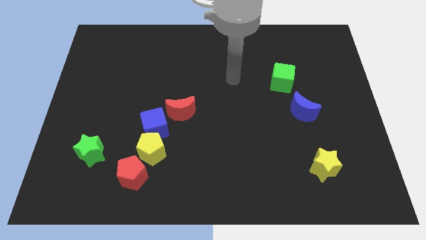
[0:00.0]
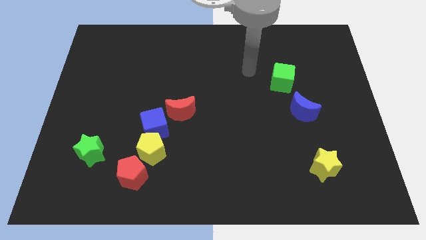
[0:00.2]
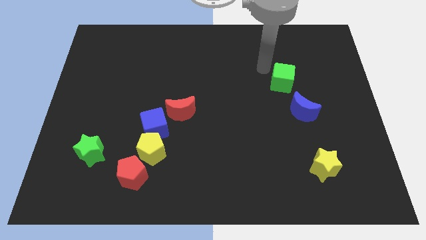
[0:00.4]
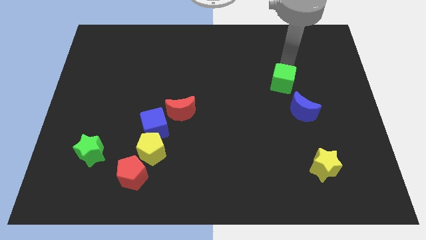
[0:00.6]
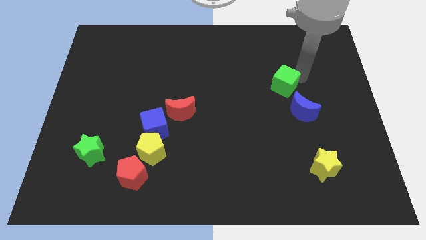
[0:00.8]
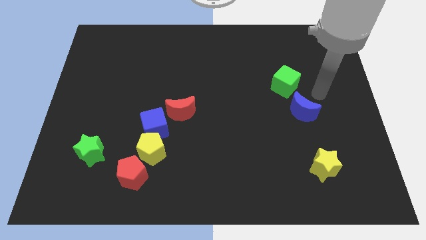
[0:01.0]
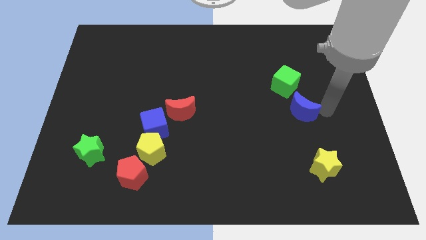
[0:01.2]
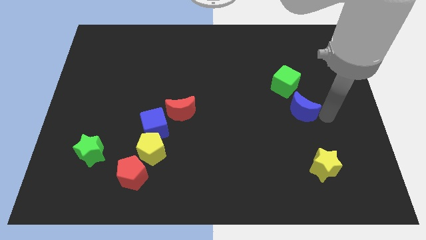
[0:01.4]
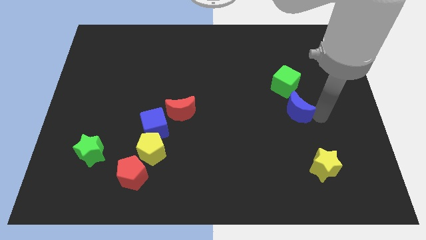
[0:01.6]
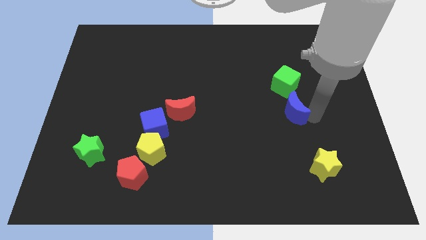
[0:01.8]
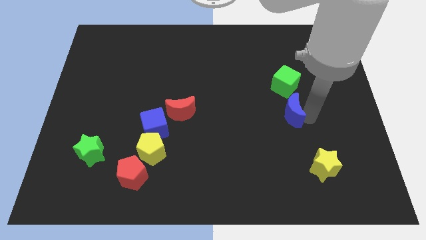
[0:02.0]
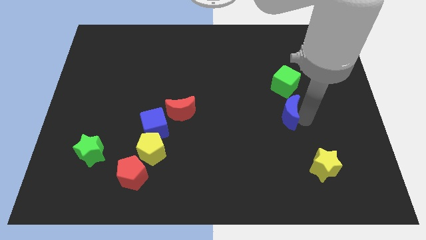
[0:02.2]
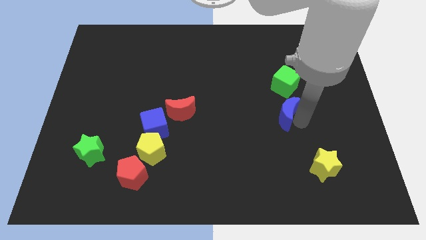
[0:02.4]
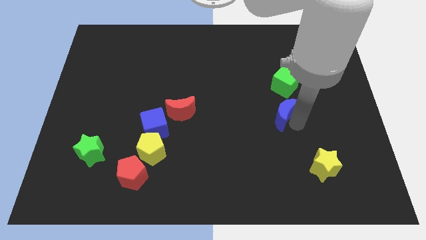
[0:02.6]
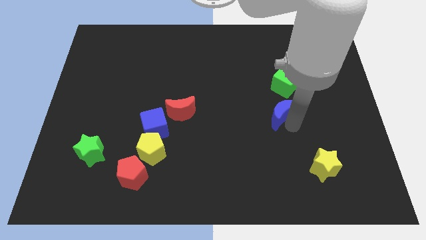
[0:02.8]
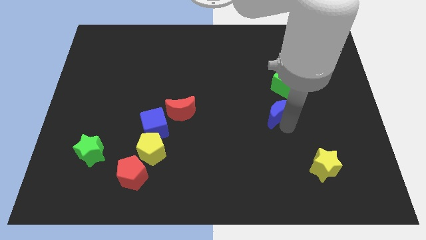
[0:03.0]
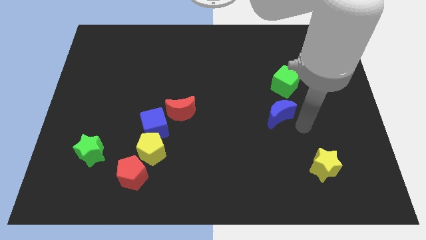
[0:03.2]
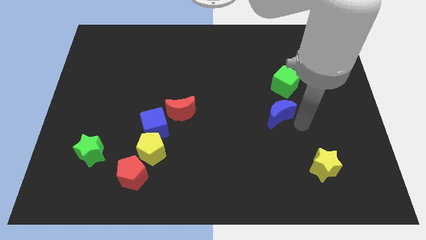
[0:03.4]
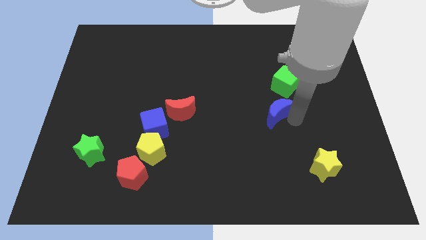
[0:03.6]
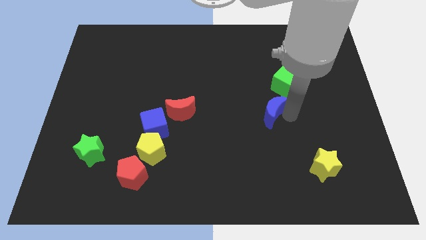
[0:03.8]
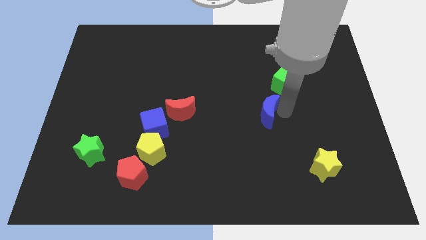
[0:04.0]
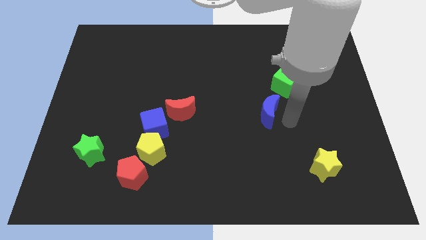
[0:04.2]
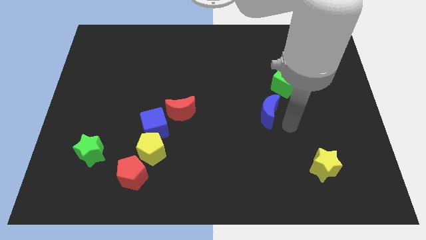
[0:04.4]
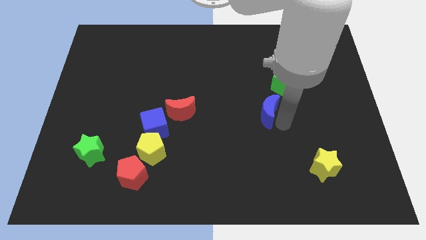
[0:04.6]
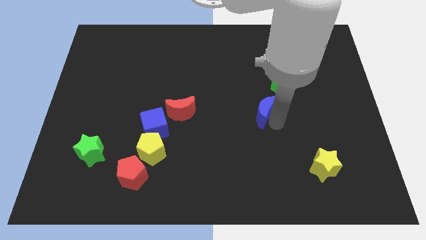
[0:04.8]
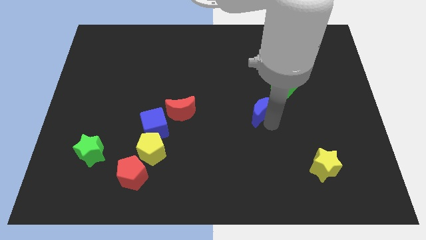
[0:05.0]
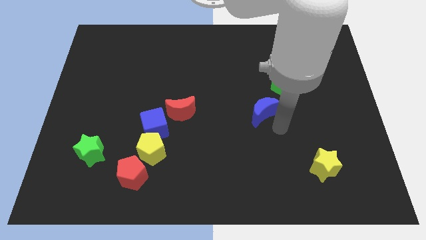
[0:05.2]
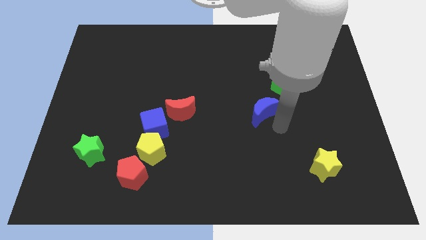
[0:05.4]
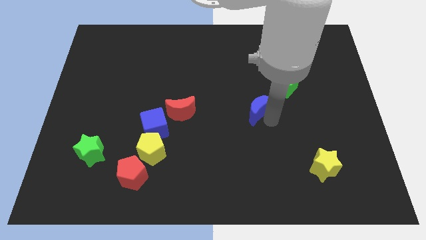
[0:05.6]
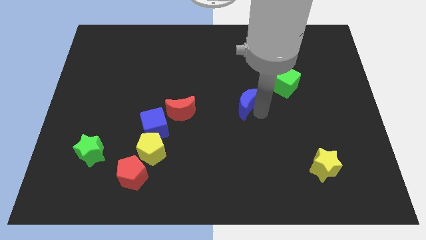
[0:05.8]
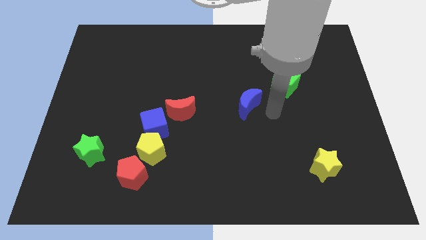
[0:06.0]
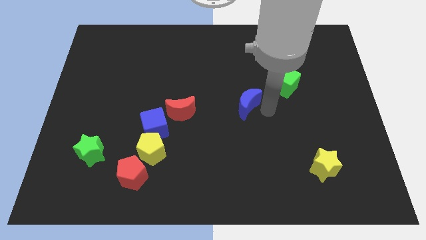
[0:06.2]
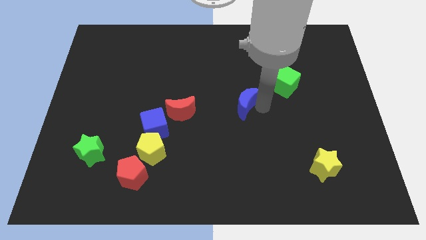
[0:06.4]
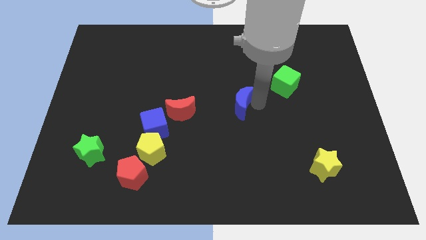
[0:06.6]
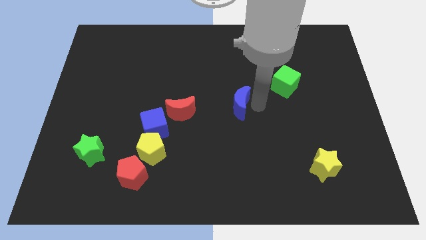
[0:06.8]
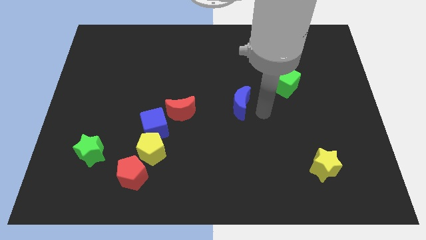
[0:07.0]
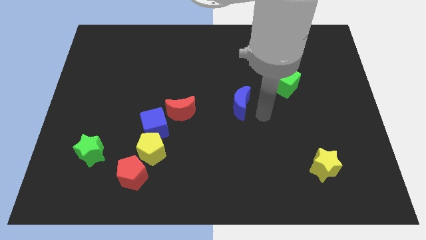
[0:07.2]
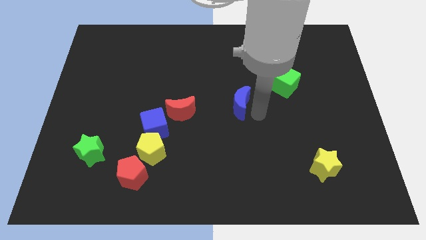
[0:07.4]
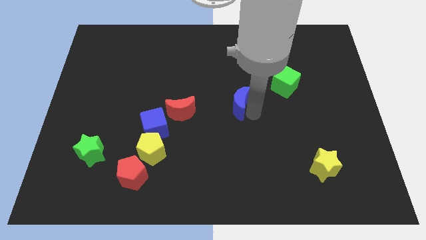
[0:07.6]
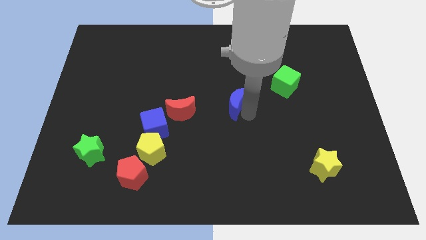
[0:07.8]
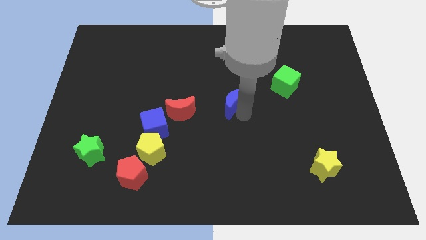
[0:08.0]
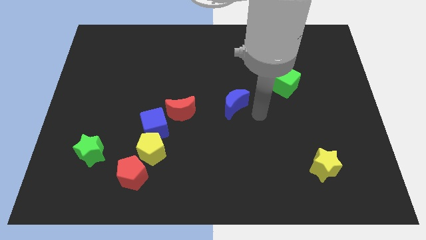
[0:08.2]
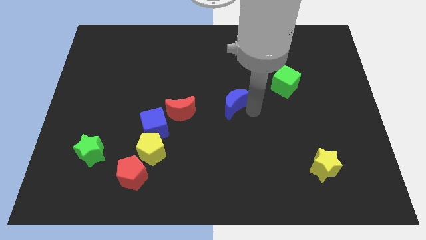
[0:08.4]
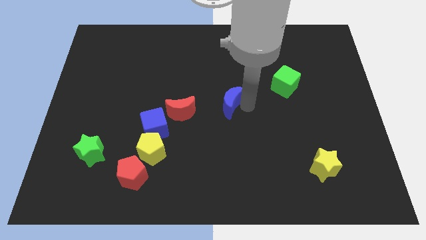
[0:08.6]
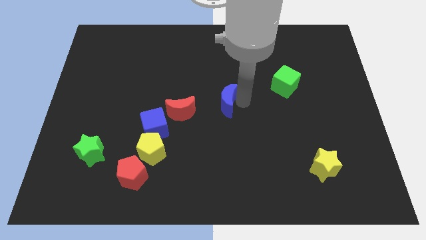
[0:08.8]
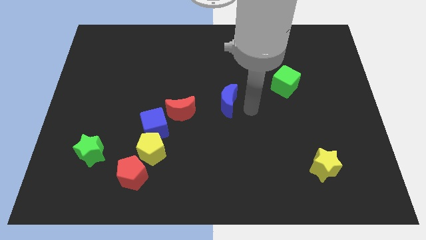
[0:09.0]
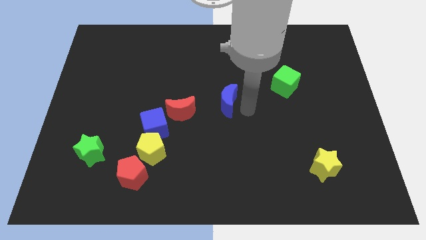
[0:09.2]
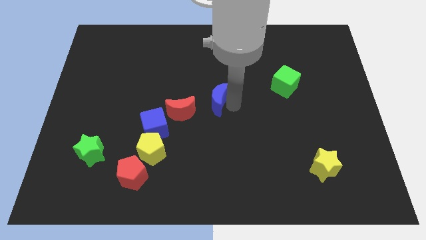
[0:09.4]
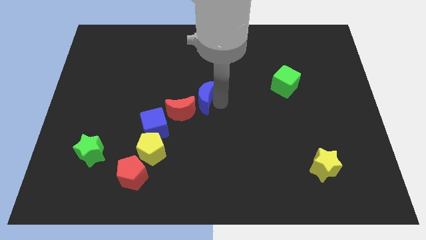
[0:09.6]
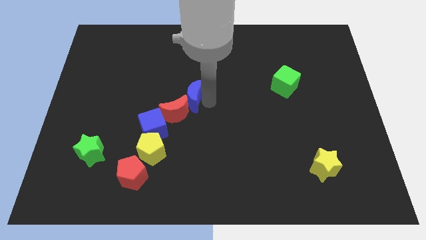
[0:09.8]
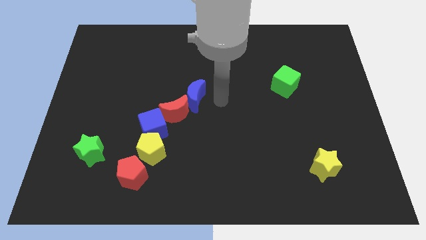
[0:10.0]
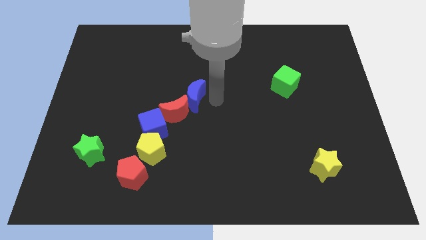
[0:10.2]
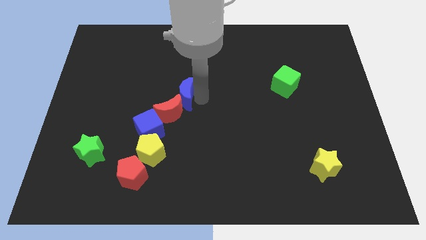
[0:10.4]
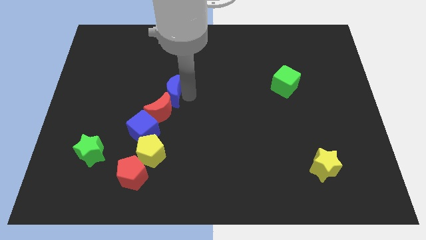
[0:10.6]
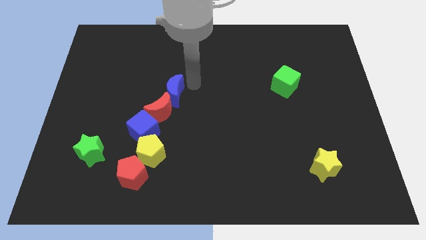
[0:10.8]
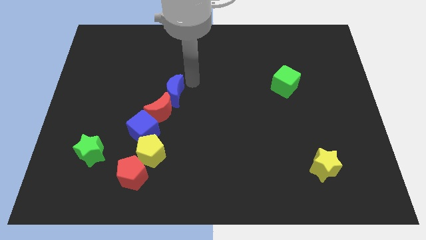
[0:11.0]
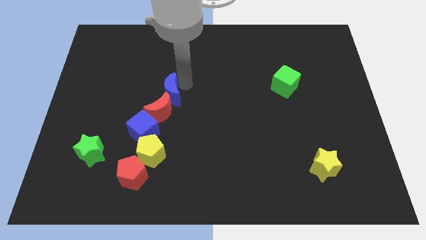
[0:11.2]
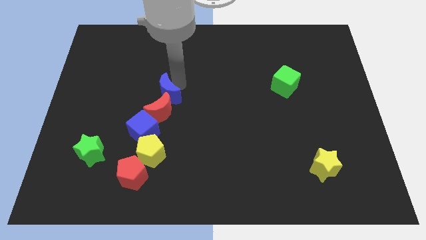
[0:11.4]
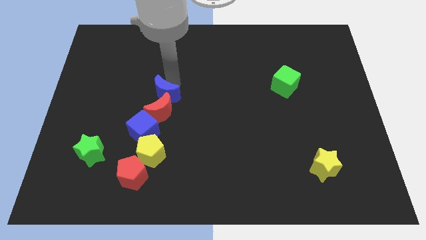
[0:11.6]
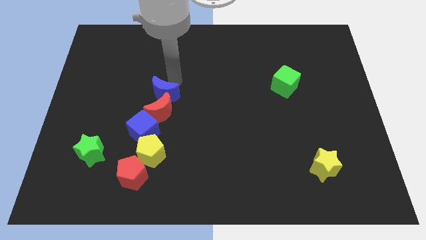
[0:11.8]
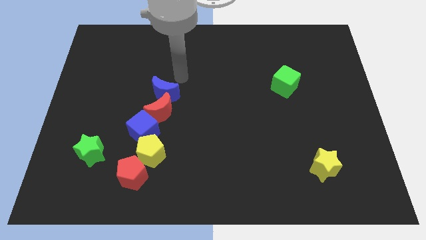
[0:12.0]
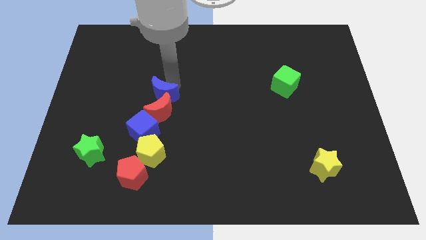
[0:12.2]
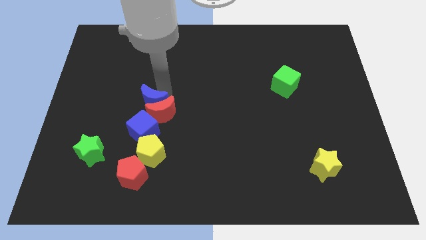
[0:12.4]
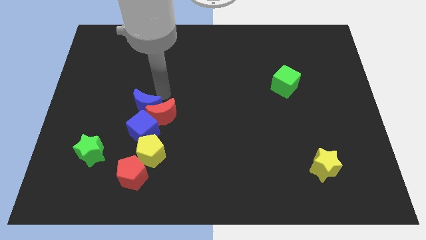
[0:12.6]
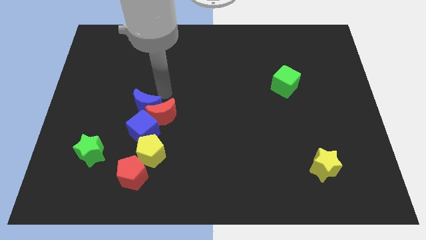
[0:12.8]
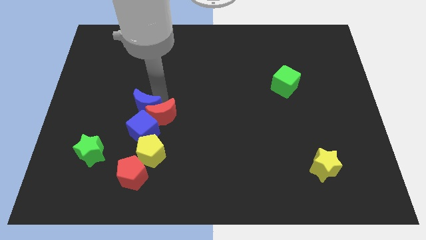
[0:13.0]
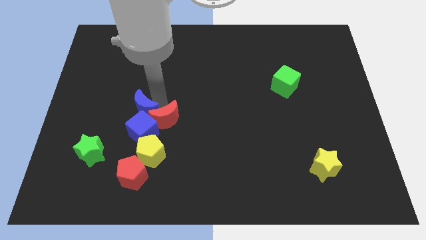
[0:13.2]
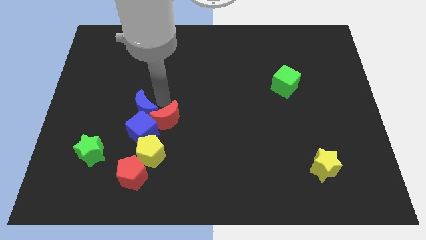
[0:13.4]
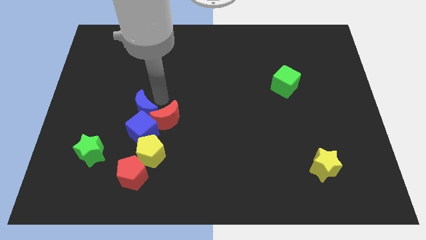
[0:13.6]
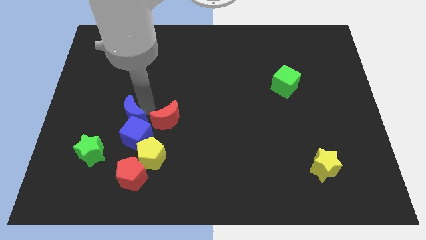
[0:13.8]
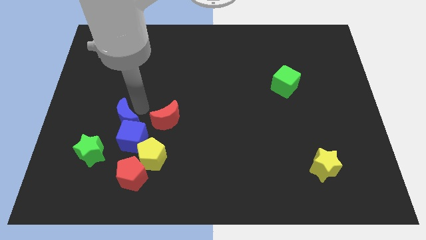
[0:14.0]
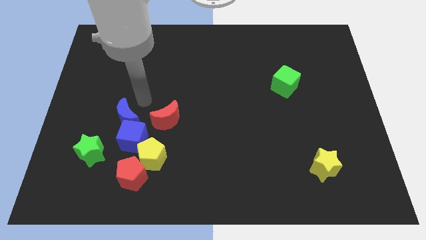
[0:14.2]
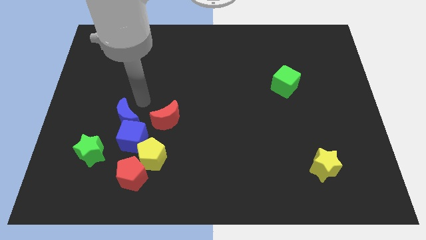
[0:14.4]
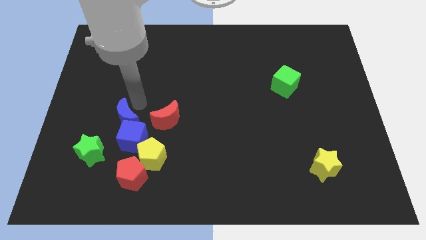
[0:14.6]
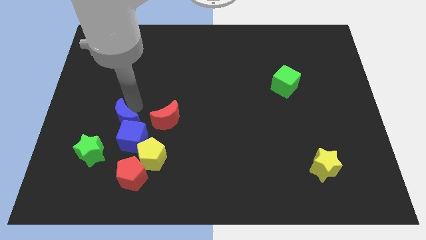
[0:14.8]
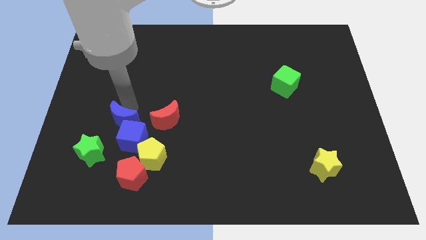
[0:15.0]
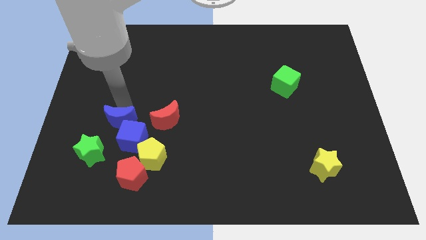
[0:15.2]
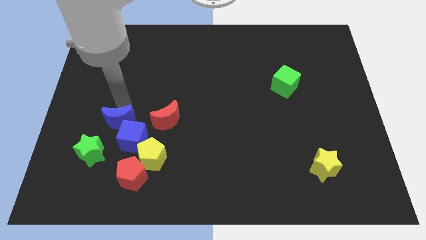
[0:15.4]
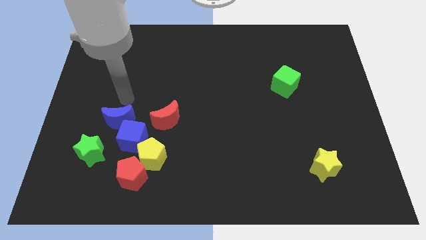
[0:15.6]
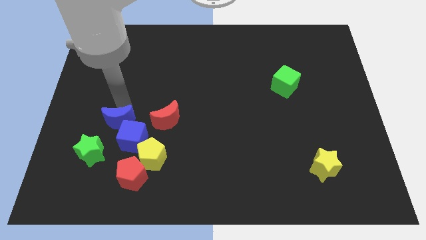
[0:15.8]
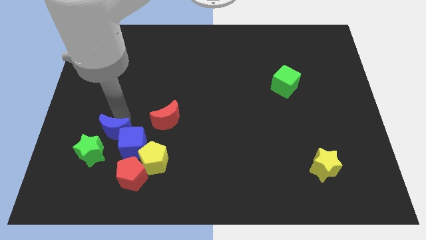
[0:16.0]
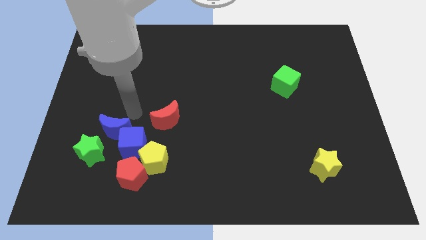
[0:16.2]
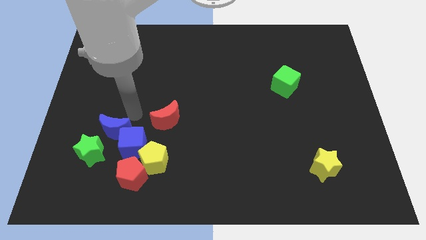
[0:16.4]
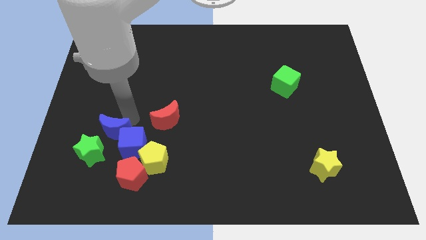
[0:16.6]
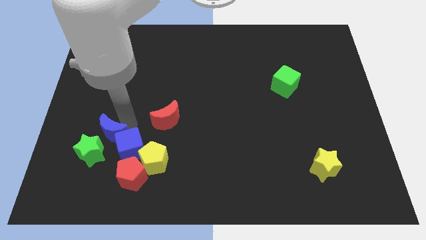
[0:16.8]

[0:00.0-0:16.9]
push the blue moon to the green star
